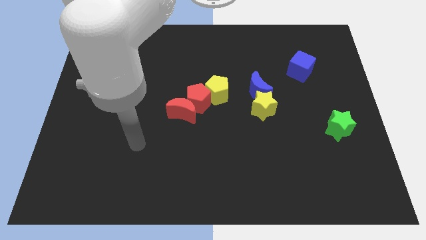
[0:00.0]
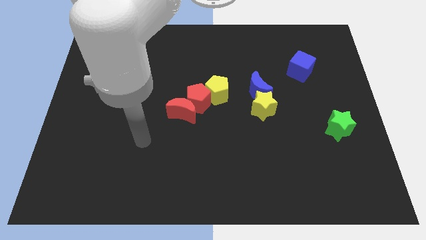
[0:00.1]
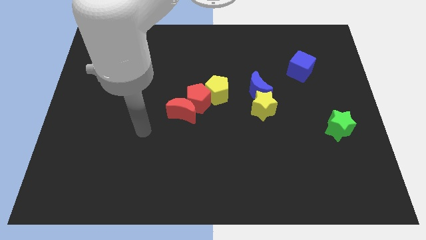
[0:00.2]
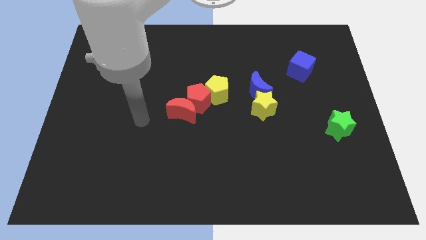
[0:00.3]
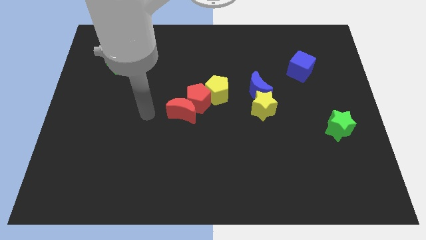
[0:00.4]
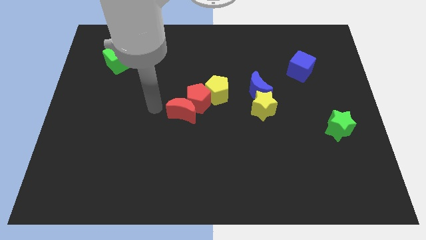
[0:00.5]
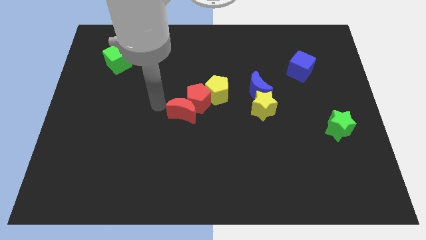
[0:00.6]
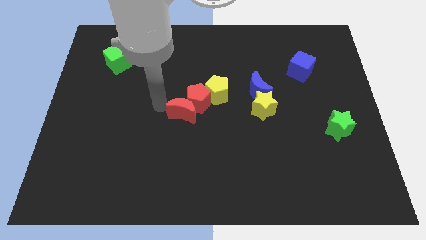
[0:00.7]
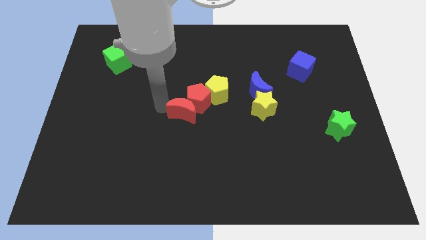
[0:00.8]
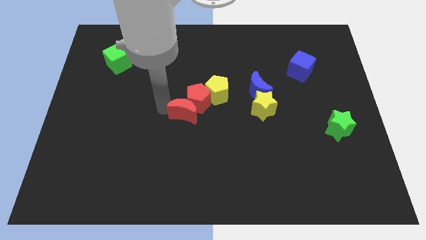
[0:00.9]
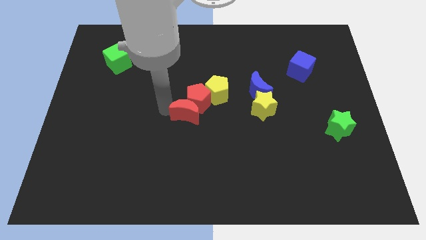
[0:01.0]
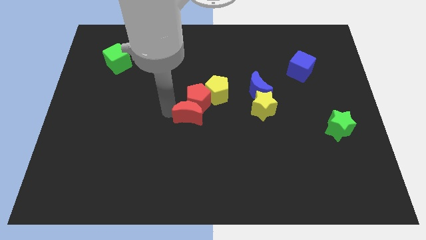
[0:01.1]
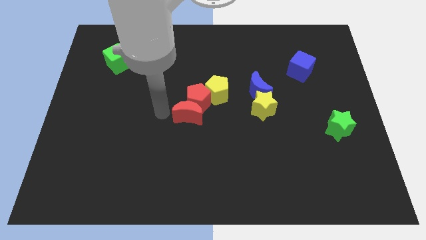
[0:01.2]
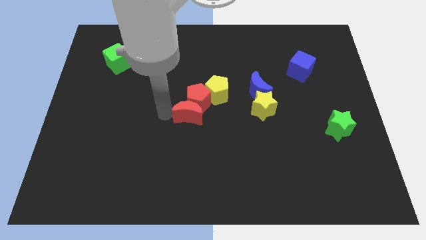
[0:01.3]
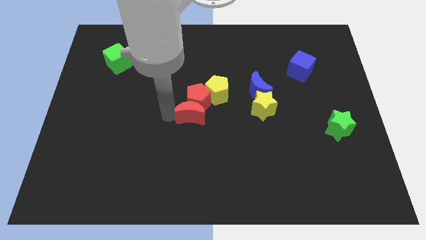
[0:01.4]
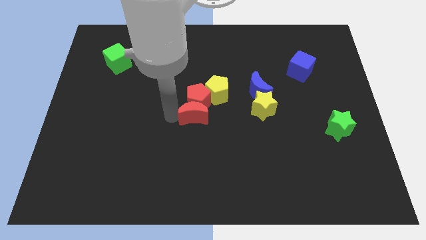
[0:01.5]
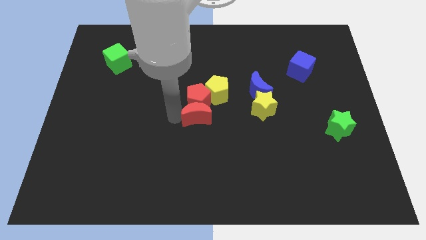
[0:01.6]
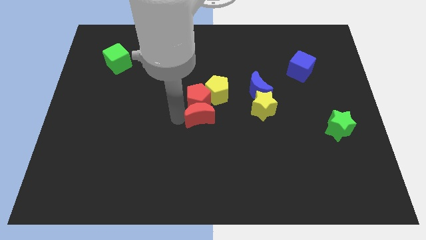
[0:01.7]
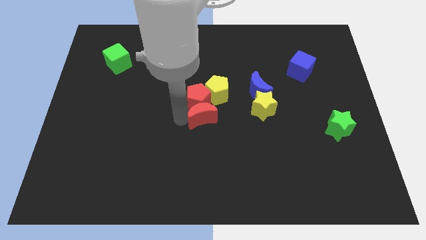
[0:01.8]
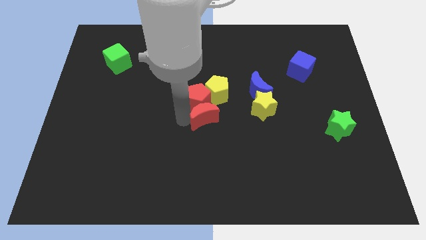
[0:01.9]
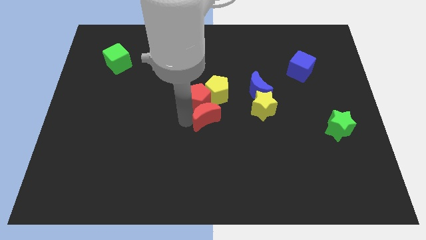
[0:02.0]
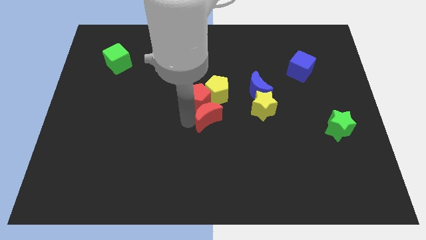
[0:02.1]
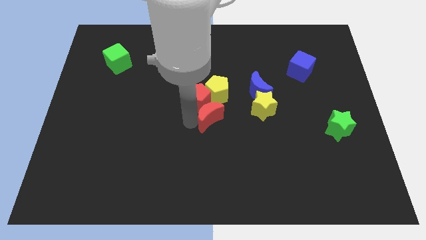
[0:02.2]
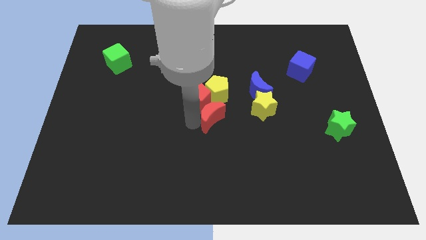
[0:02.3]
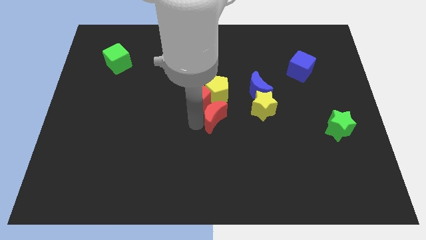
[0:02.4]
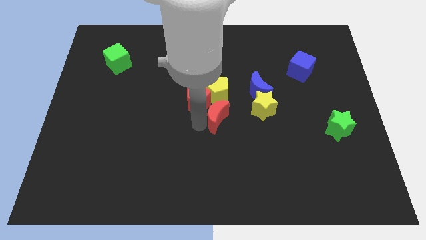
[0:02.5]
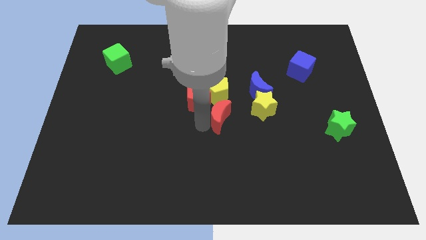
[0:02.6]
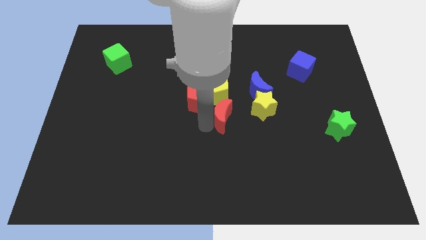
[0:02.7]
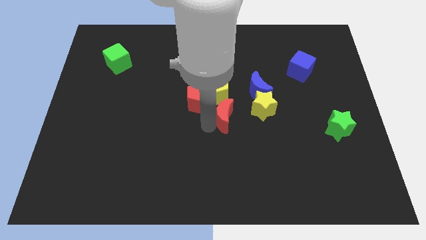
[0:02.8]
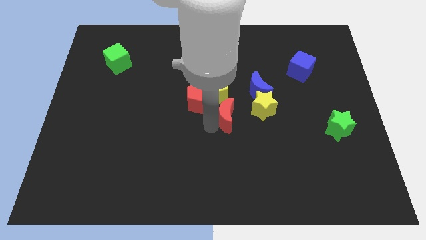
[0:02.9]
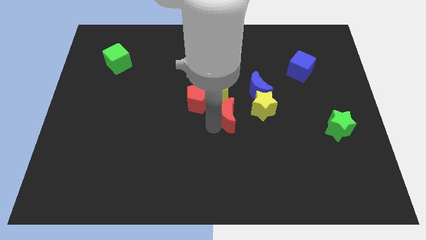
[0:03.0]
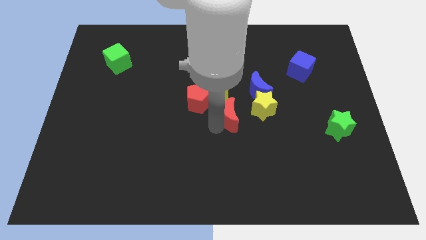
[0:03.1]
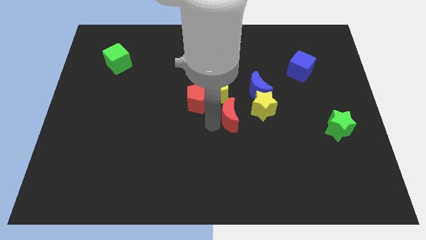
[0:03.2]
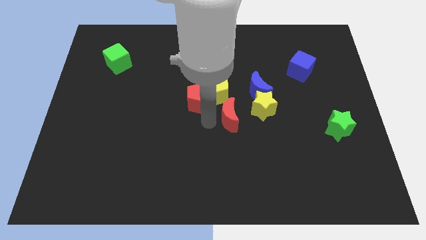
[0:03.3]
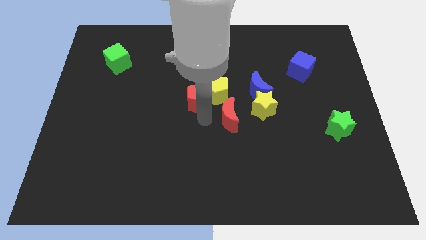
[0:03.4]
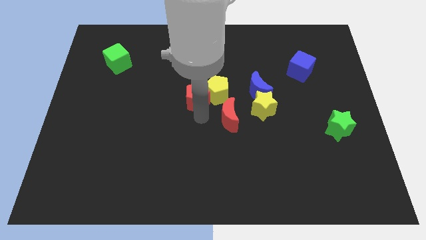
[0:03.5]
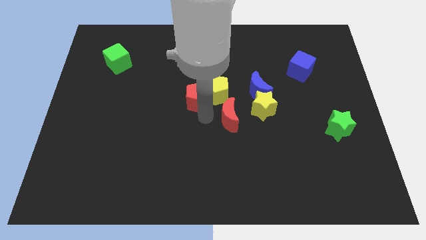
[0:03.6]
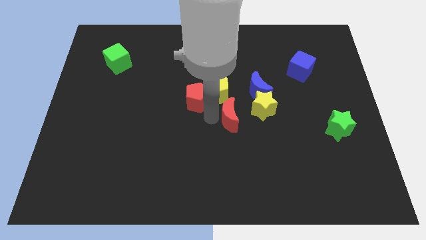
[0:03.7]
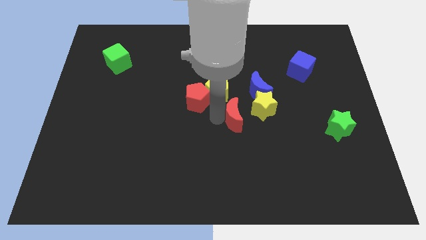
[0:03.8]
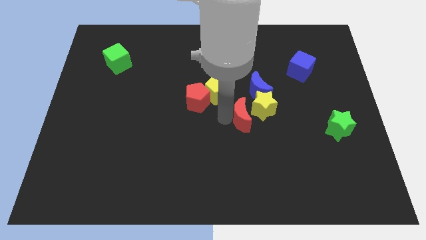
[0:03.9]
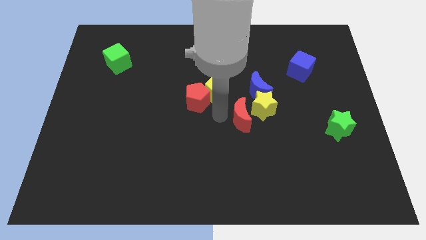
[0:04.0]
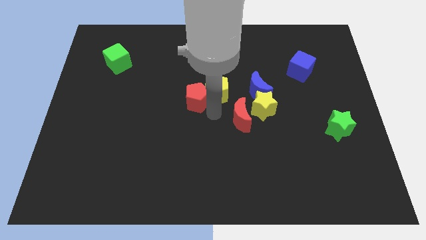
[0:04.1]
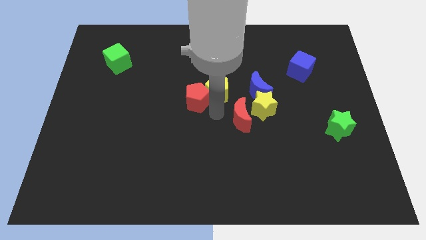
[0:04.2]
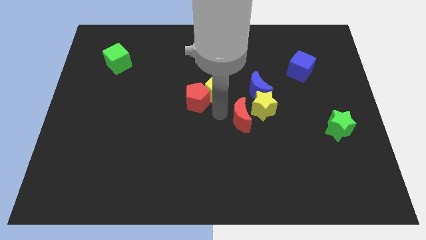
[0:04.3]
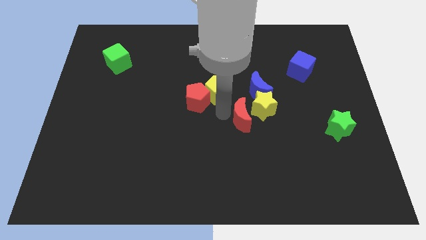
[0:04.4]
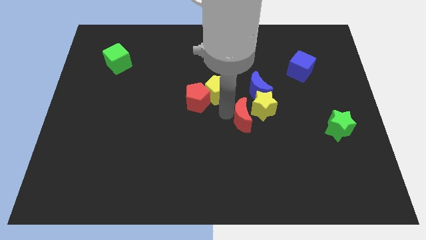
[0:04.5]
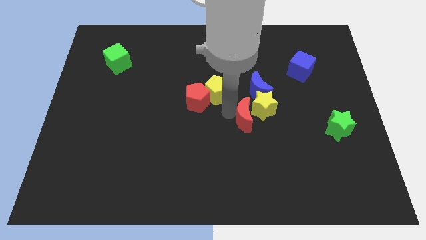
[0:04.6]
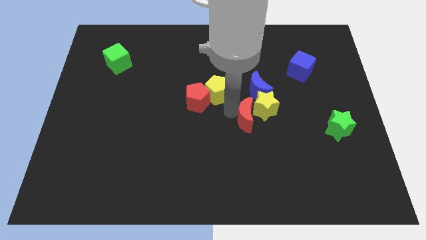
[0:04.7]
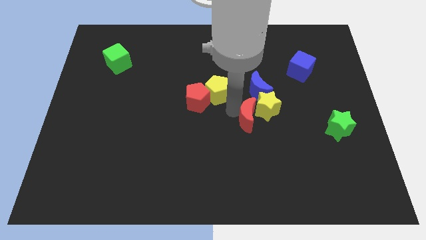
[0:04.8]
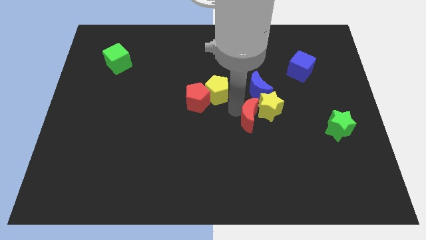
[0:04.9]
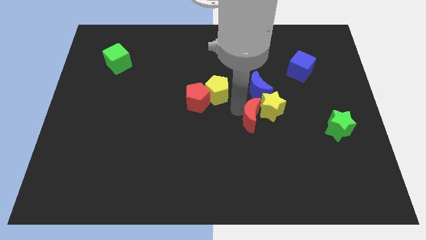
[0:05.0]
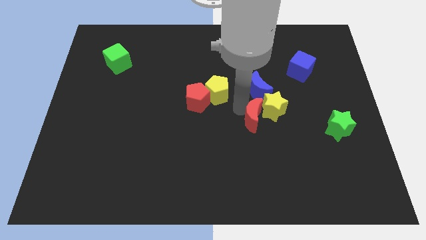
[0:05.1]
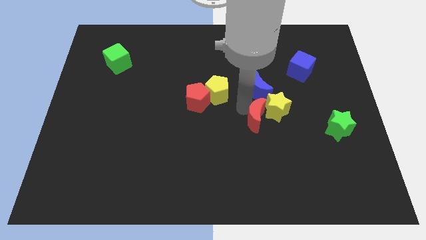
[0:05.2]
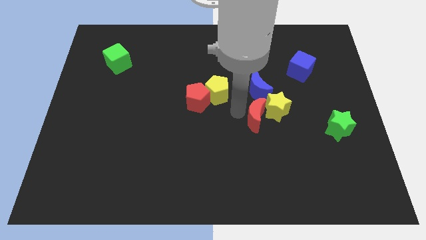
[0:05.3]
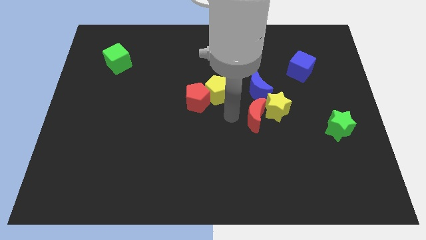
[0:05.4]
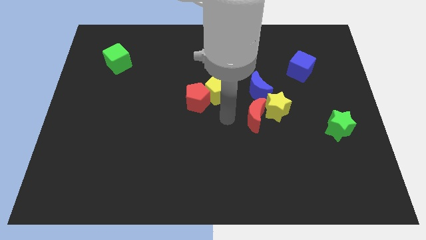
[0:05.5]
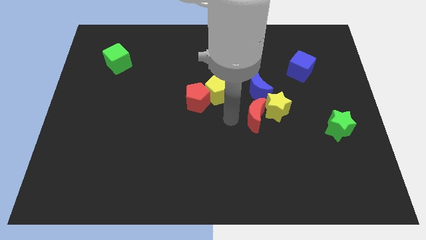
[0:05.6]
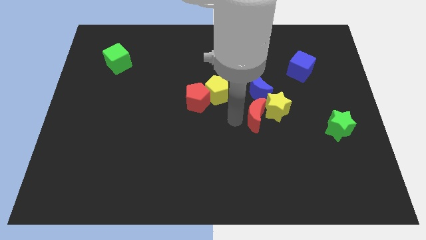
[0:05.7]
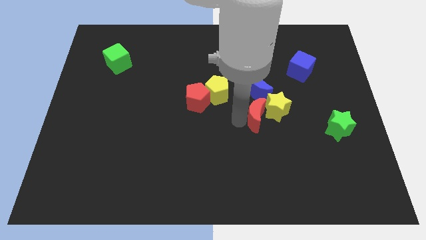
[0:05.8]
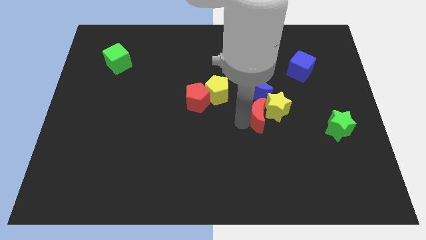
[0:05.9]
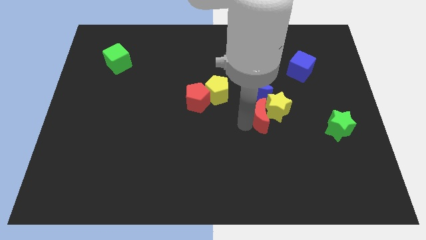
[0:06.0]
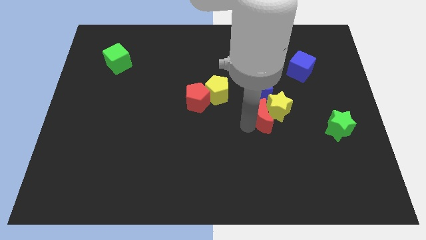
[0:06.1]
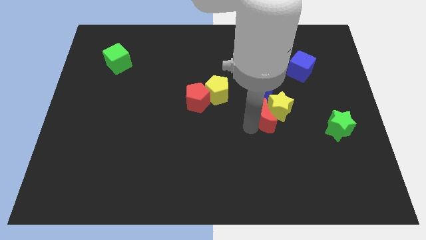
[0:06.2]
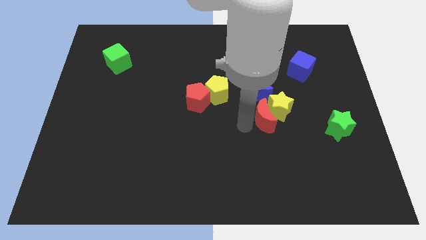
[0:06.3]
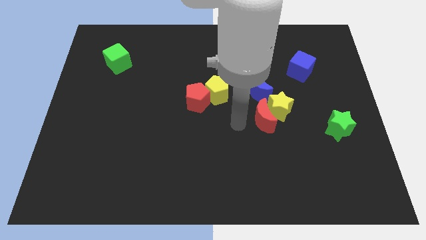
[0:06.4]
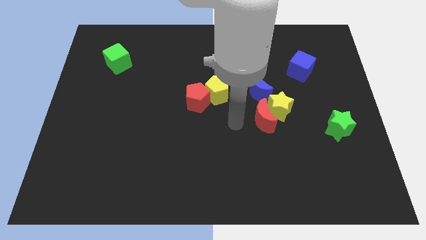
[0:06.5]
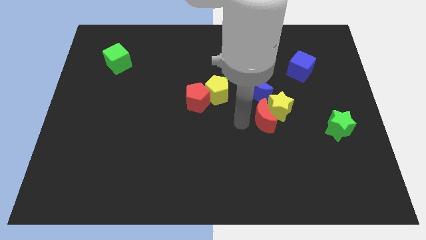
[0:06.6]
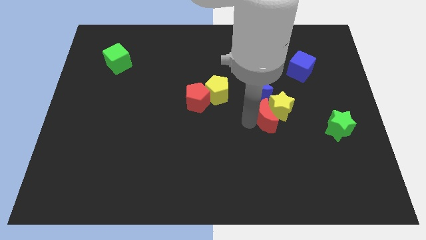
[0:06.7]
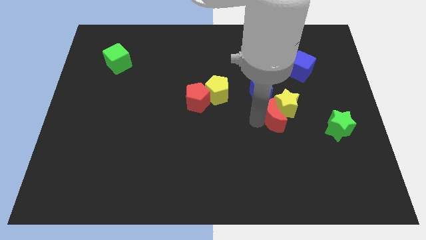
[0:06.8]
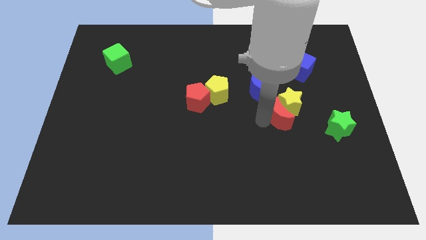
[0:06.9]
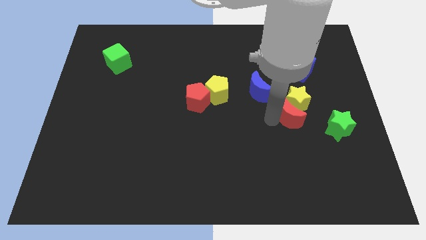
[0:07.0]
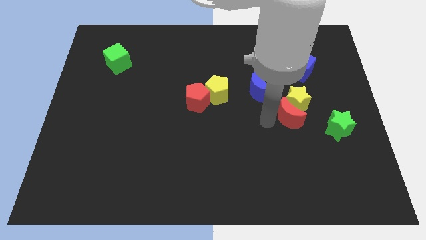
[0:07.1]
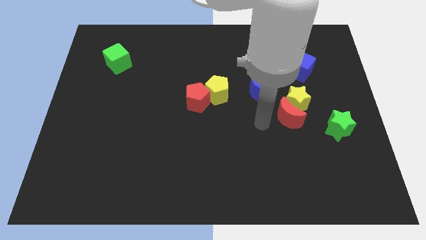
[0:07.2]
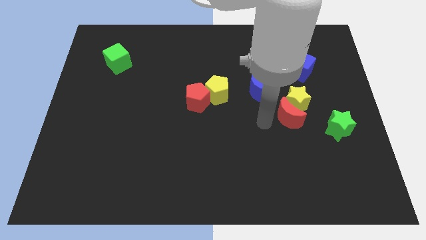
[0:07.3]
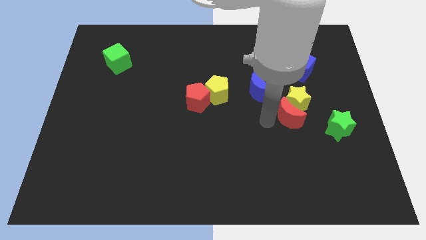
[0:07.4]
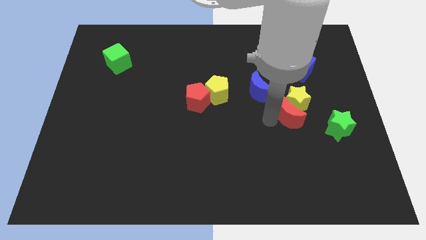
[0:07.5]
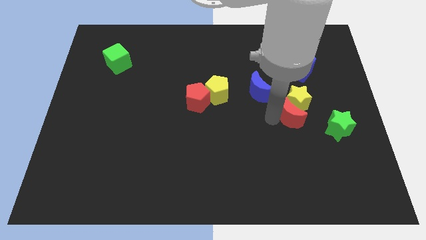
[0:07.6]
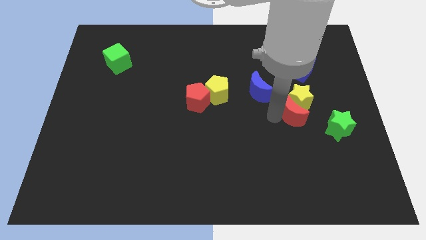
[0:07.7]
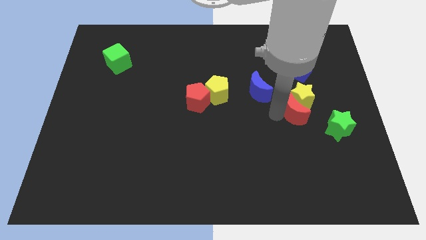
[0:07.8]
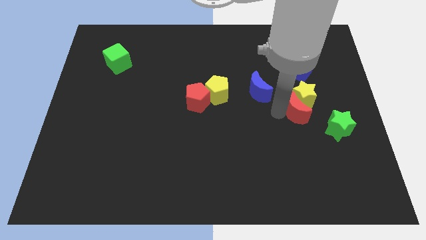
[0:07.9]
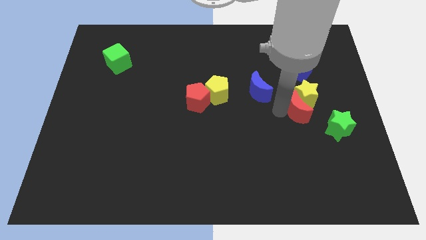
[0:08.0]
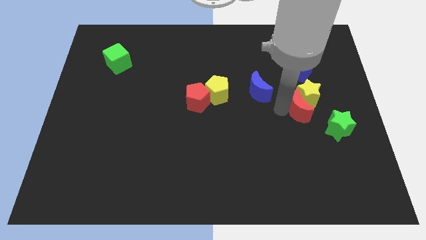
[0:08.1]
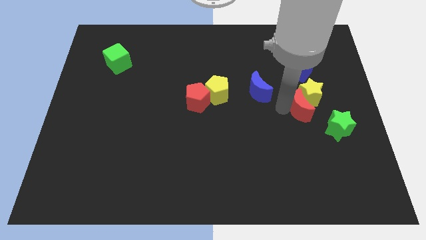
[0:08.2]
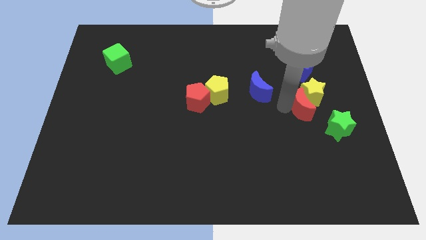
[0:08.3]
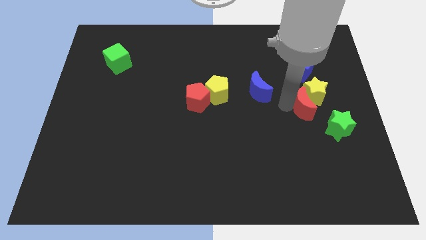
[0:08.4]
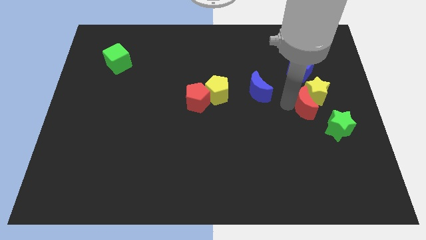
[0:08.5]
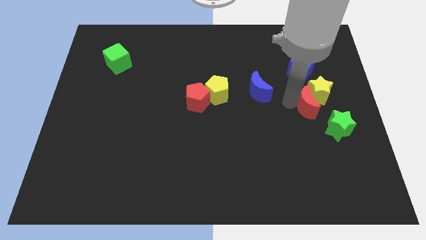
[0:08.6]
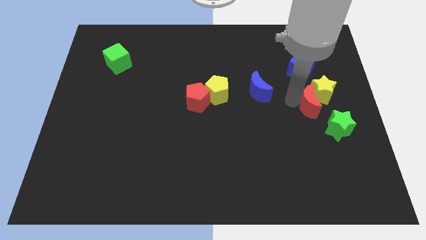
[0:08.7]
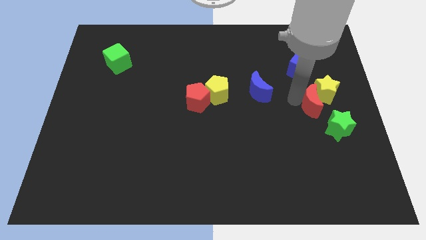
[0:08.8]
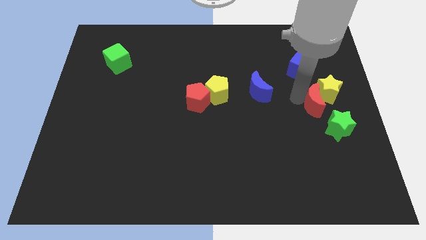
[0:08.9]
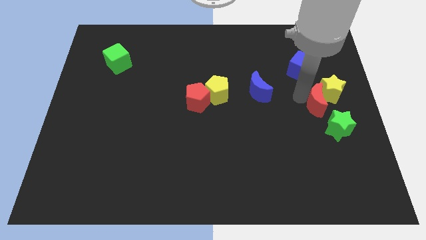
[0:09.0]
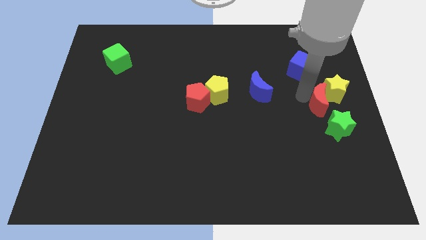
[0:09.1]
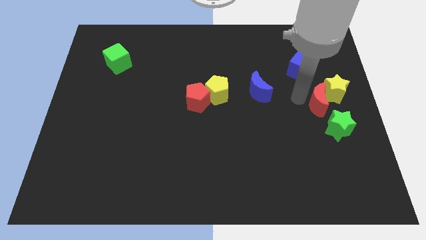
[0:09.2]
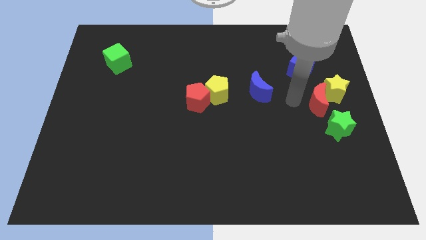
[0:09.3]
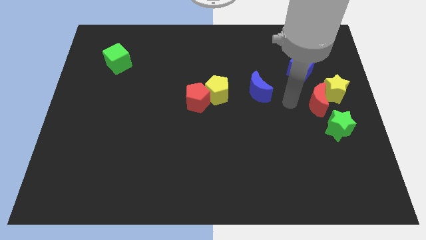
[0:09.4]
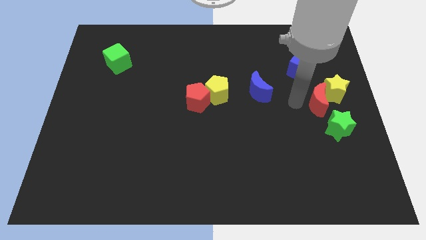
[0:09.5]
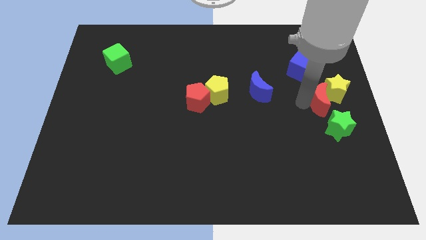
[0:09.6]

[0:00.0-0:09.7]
slide the red moon to the right side
